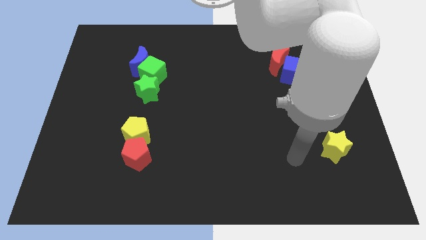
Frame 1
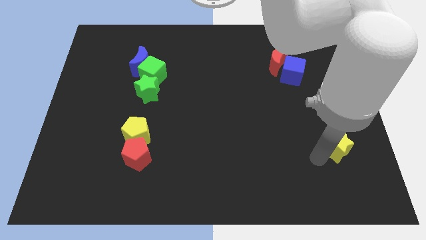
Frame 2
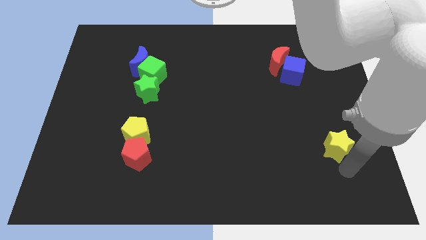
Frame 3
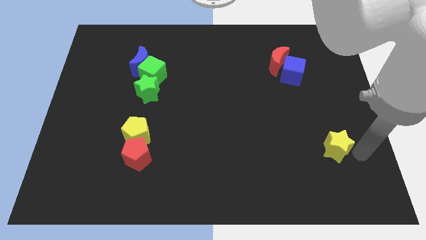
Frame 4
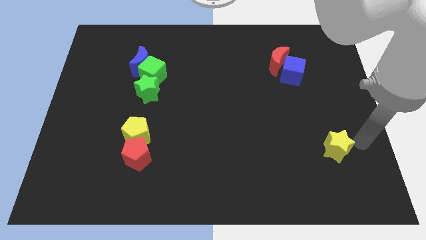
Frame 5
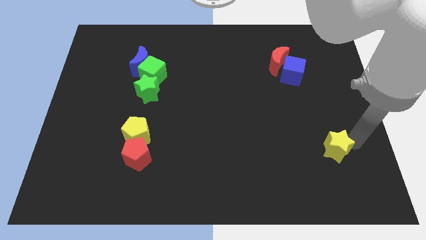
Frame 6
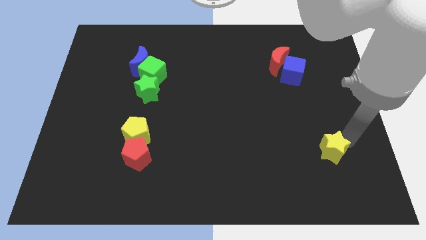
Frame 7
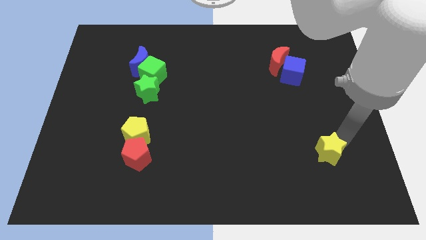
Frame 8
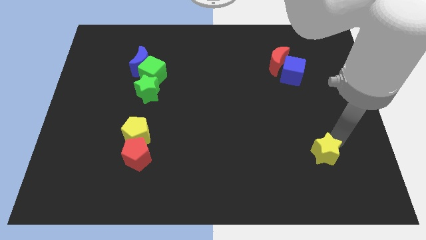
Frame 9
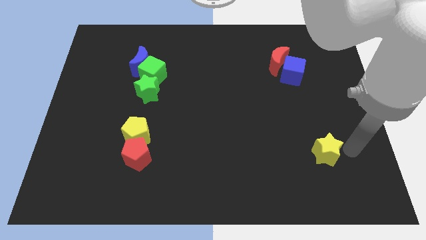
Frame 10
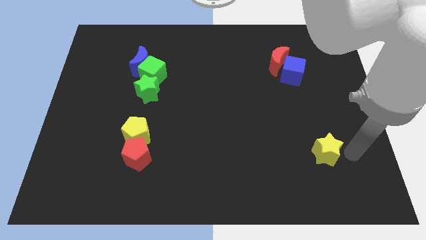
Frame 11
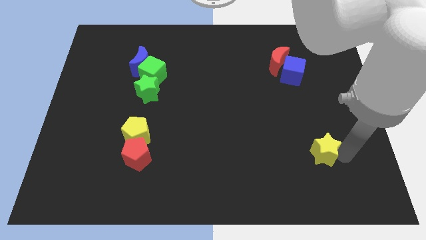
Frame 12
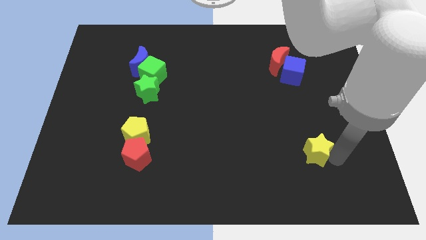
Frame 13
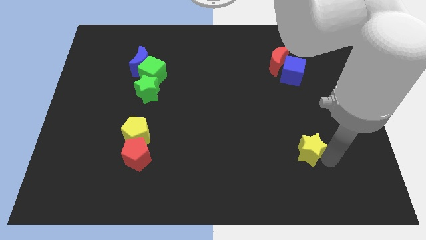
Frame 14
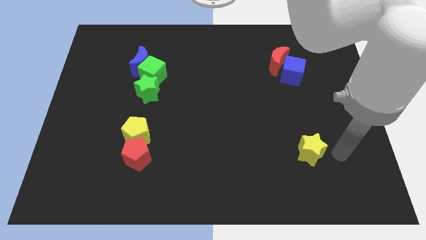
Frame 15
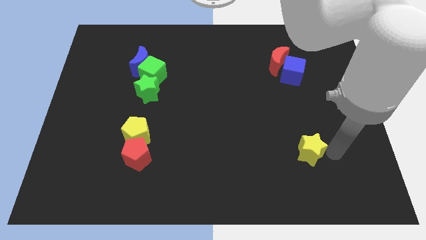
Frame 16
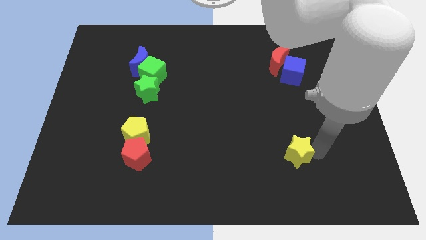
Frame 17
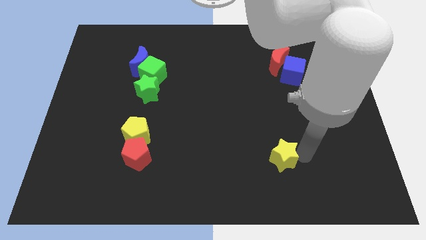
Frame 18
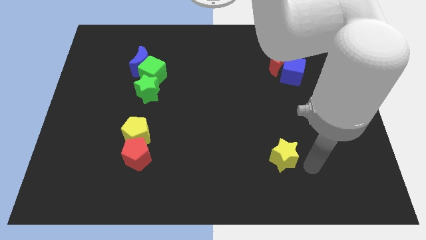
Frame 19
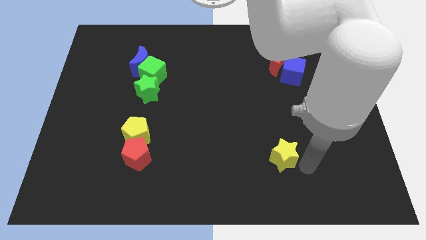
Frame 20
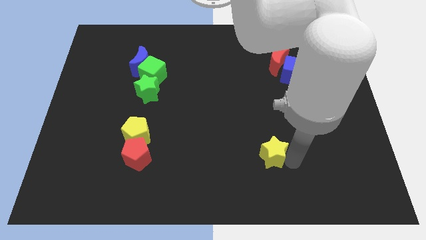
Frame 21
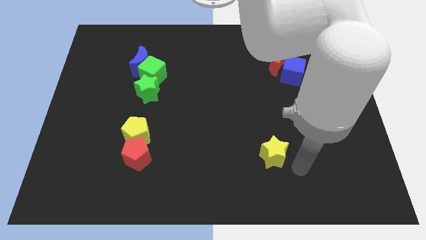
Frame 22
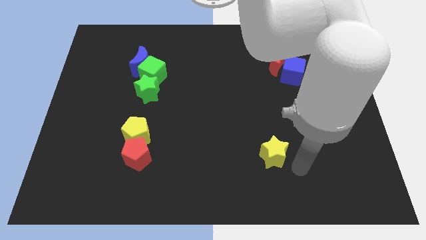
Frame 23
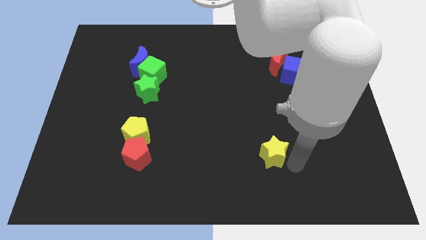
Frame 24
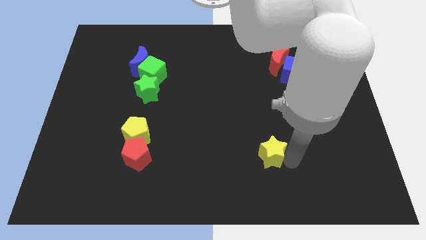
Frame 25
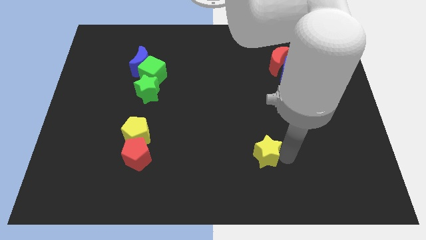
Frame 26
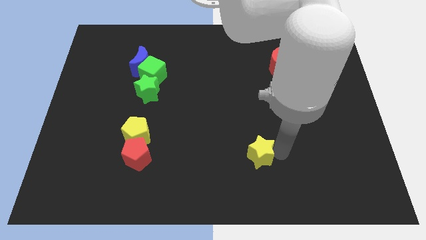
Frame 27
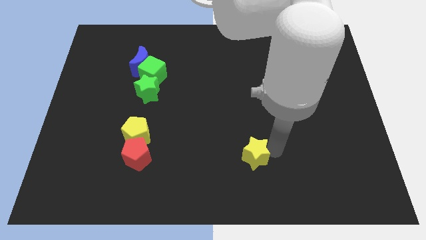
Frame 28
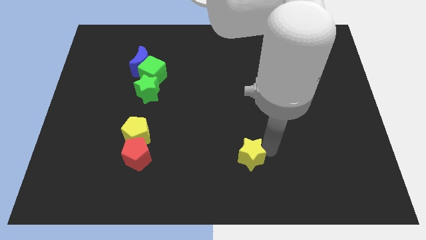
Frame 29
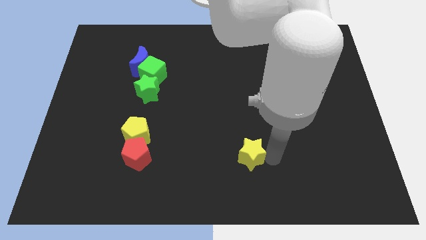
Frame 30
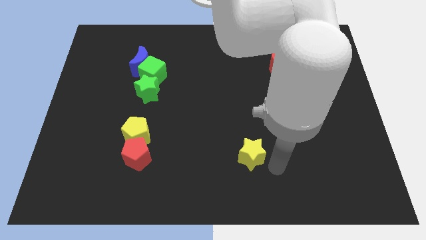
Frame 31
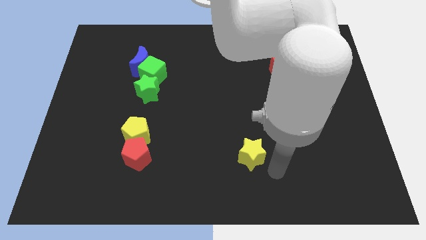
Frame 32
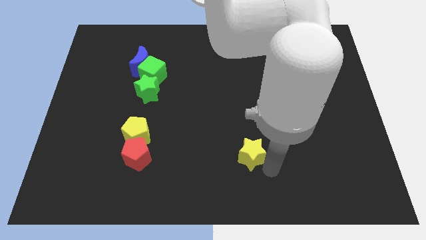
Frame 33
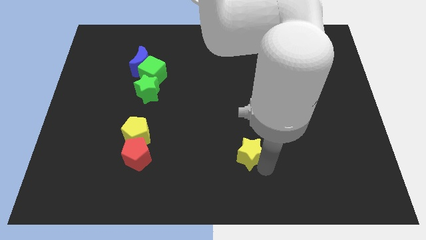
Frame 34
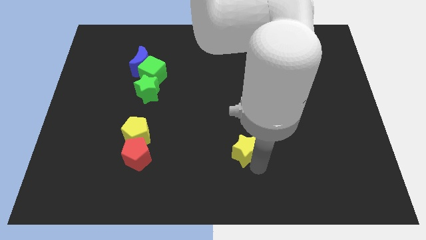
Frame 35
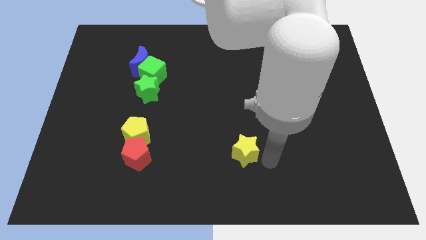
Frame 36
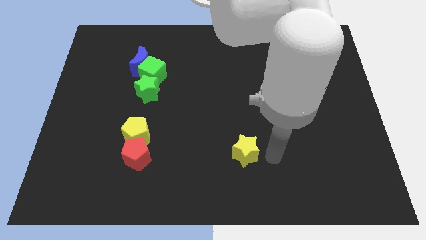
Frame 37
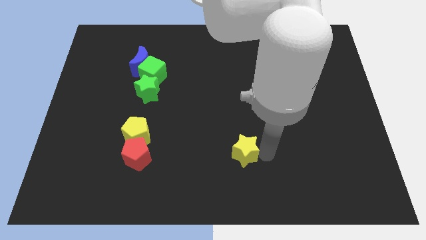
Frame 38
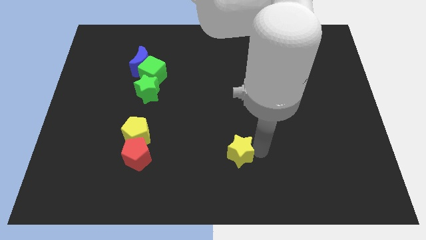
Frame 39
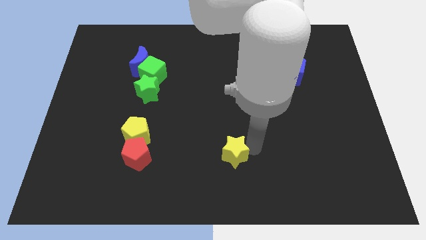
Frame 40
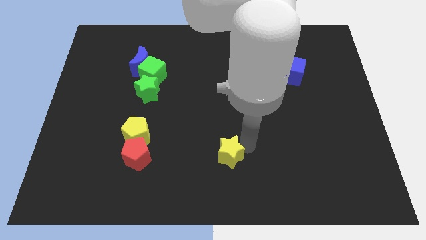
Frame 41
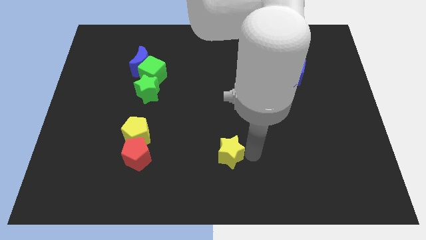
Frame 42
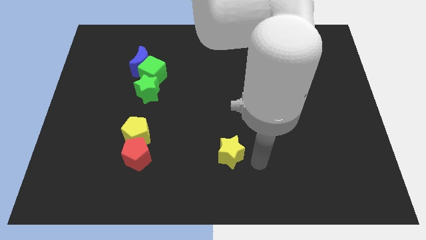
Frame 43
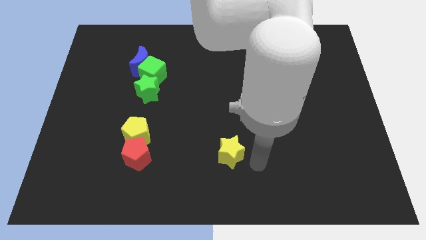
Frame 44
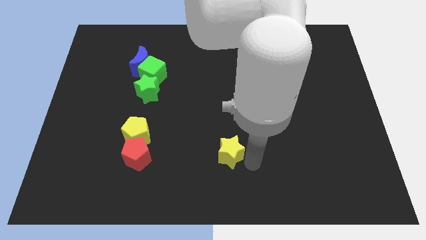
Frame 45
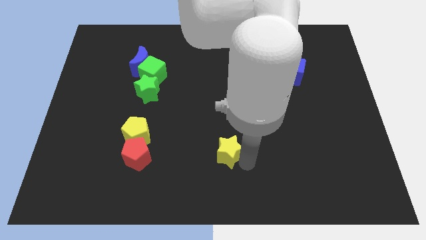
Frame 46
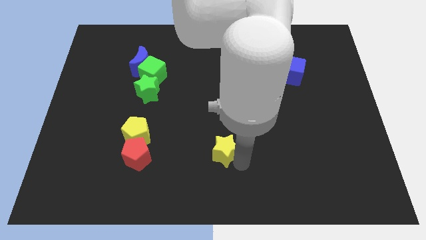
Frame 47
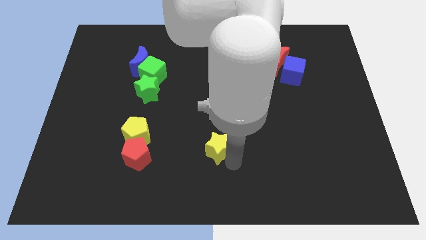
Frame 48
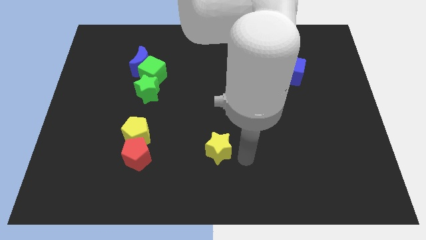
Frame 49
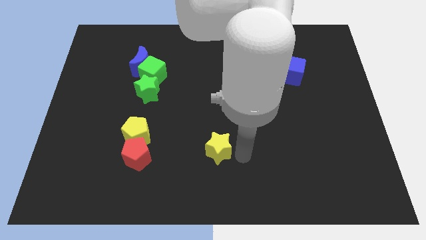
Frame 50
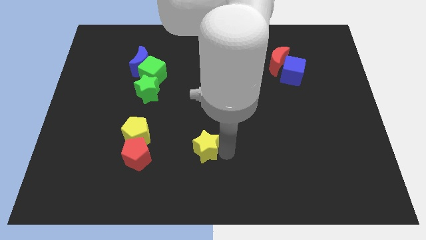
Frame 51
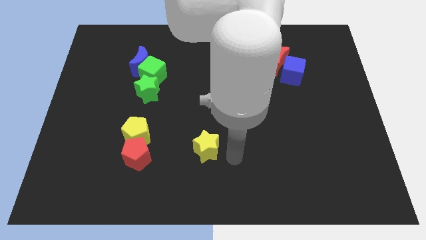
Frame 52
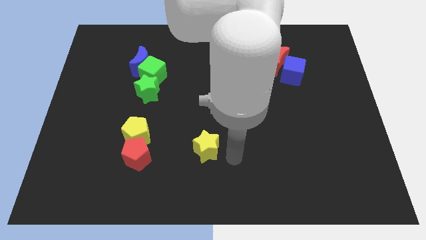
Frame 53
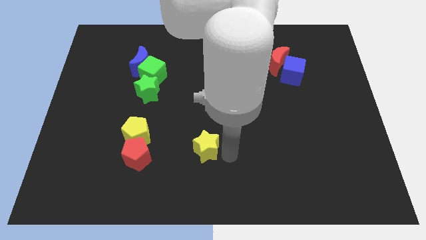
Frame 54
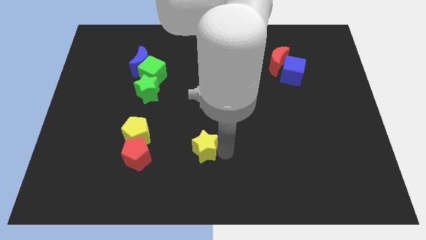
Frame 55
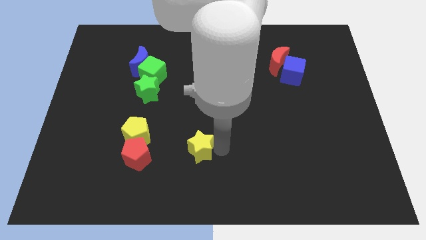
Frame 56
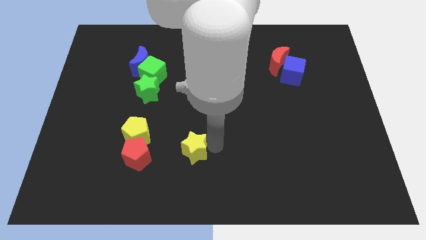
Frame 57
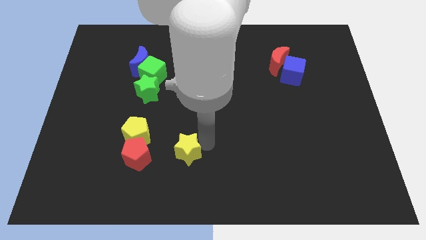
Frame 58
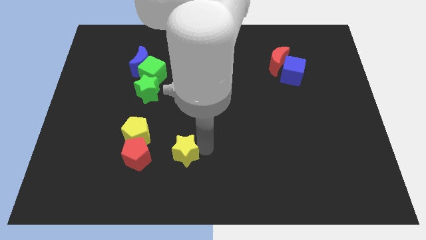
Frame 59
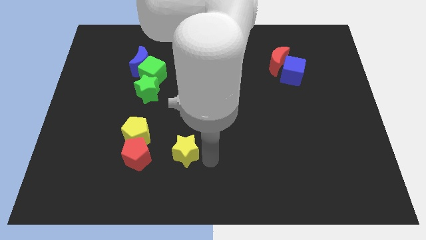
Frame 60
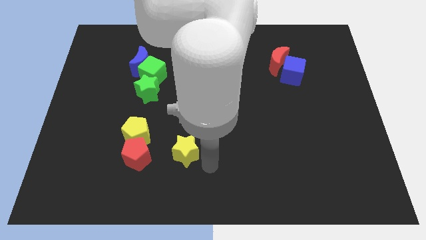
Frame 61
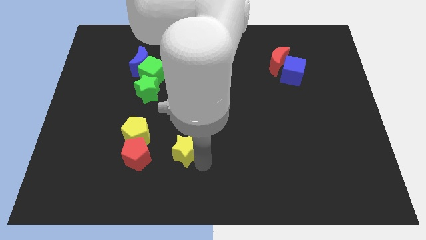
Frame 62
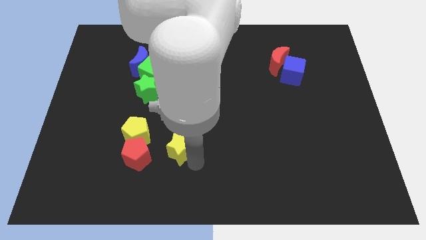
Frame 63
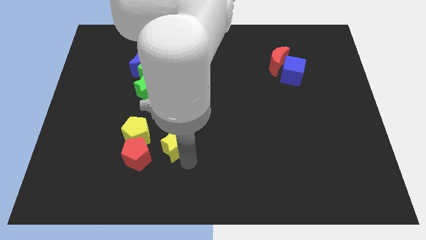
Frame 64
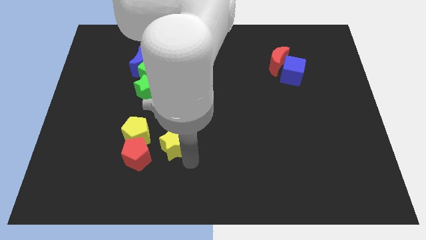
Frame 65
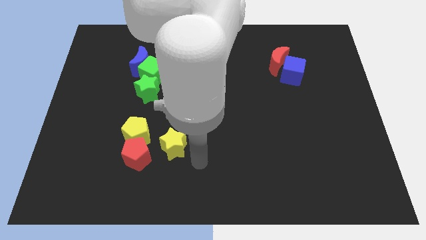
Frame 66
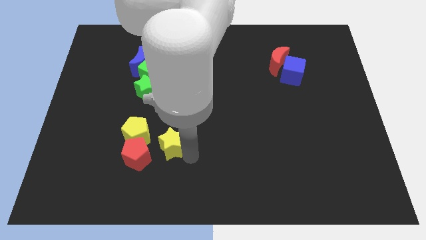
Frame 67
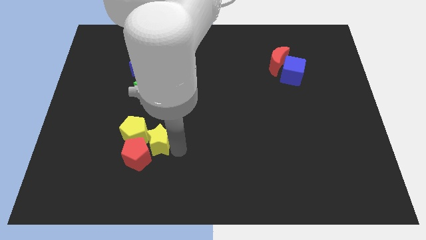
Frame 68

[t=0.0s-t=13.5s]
put the yellow star to the yellow pentagon

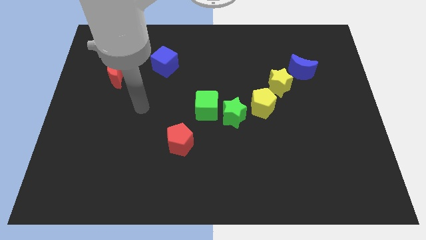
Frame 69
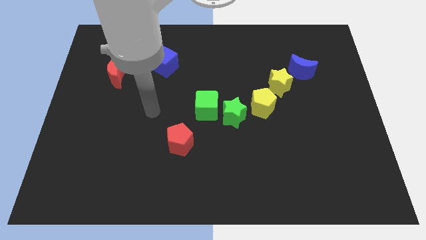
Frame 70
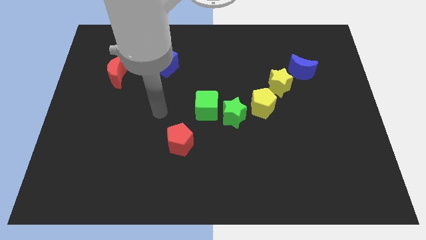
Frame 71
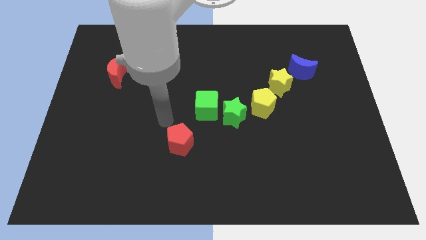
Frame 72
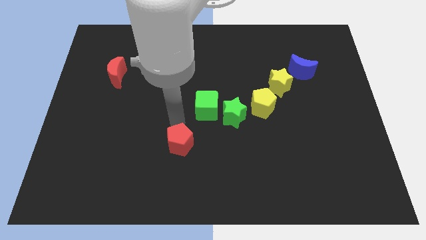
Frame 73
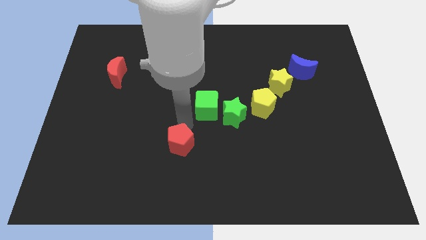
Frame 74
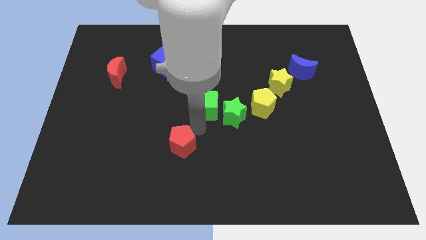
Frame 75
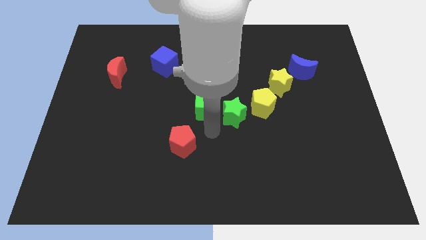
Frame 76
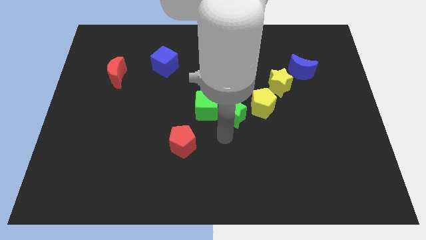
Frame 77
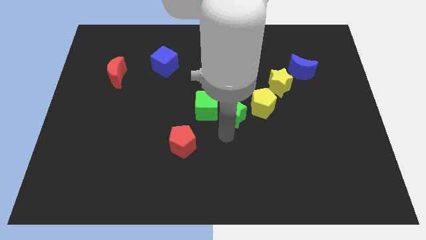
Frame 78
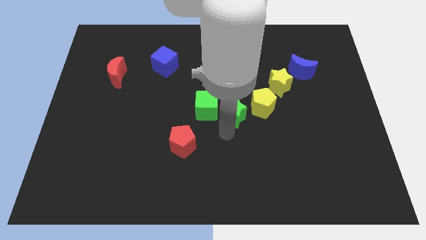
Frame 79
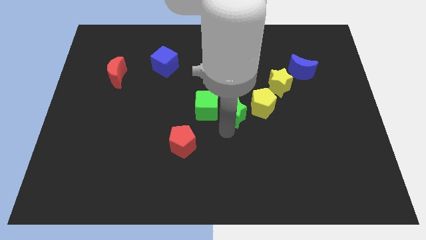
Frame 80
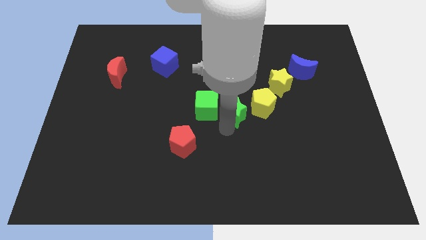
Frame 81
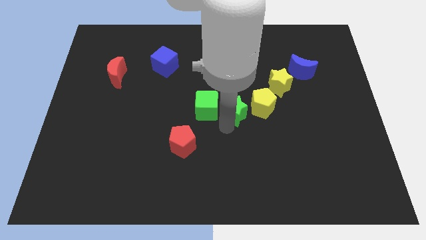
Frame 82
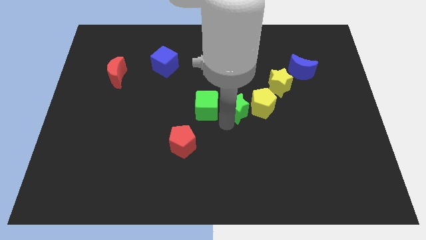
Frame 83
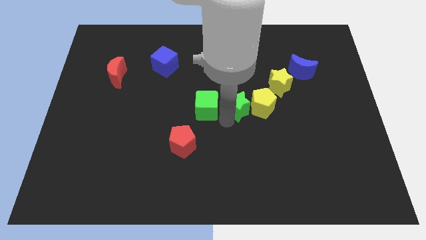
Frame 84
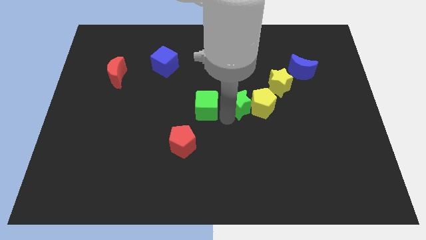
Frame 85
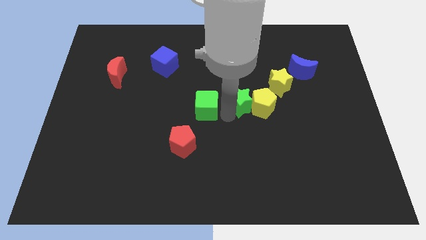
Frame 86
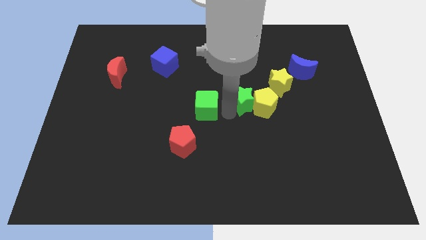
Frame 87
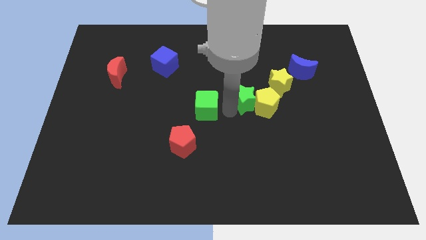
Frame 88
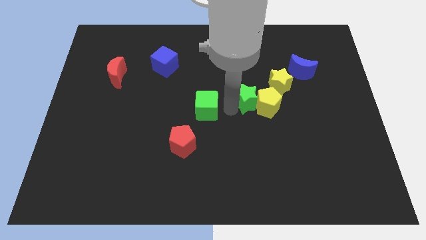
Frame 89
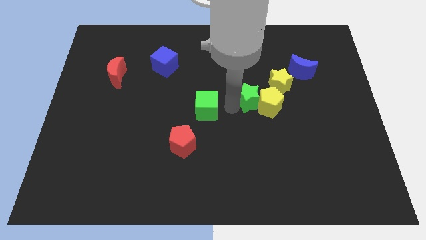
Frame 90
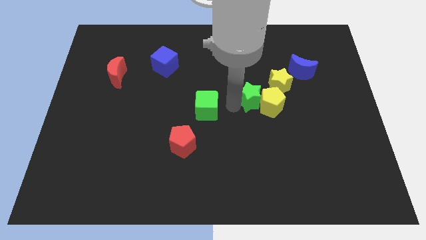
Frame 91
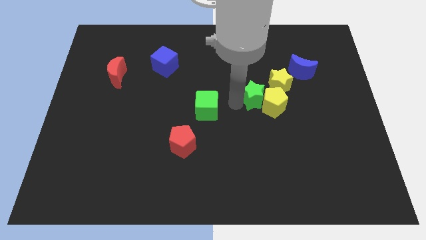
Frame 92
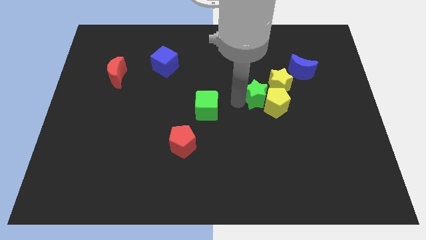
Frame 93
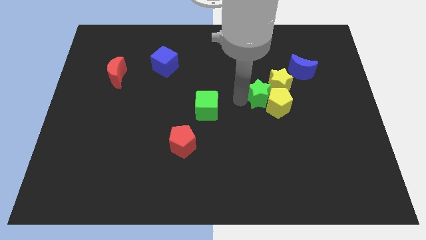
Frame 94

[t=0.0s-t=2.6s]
slide the green star next to the yellow star
